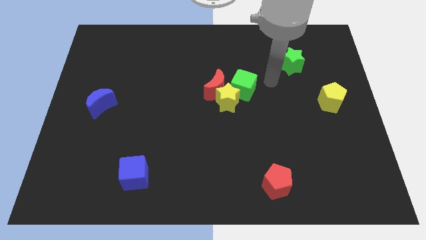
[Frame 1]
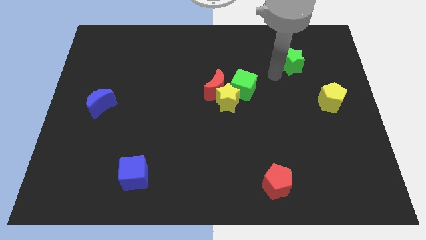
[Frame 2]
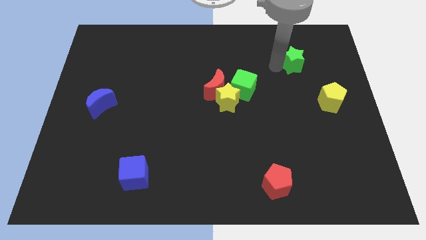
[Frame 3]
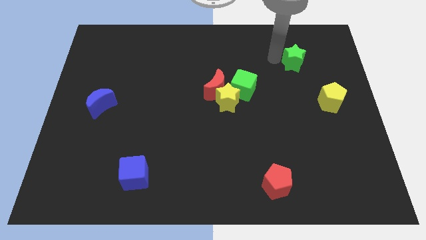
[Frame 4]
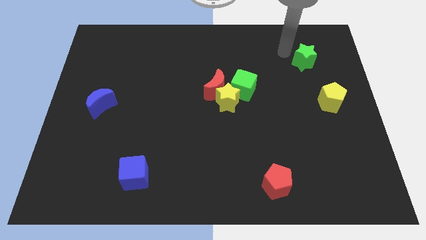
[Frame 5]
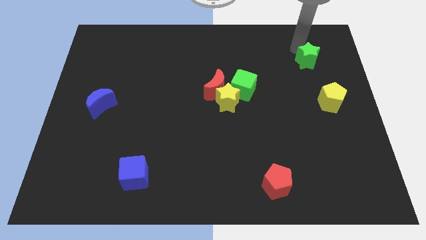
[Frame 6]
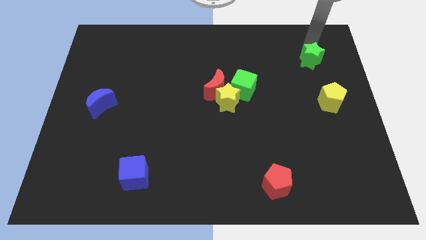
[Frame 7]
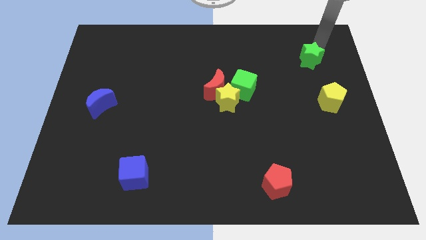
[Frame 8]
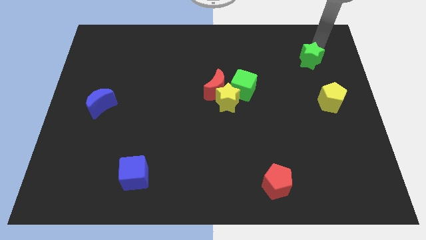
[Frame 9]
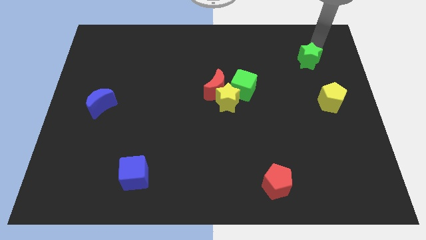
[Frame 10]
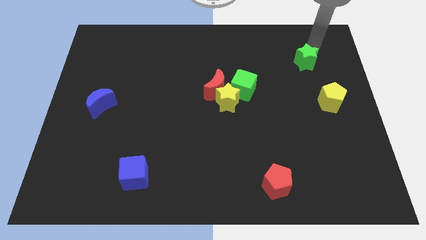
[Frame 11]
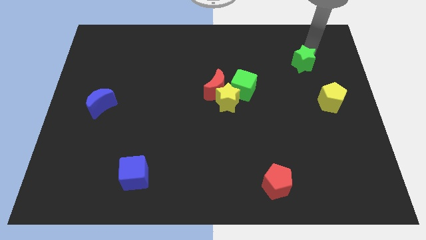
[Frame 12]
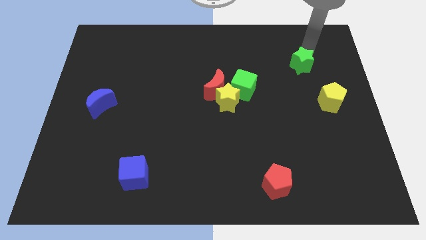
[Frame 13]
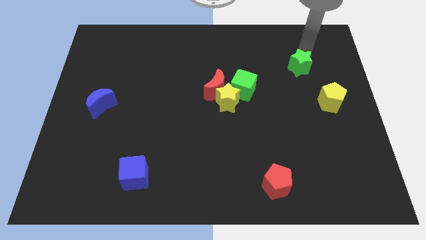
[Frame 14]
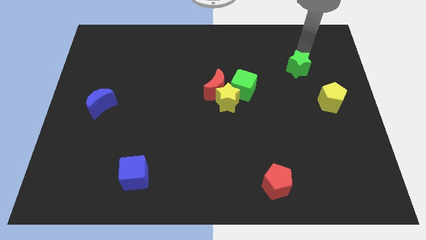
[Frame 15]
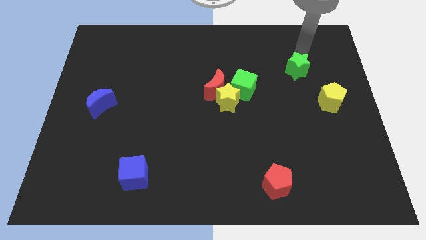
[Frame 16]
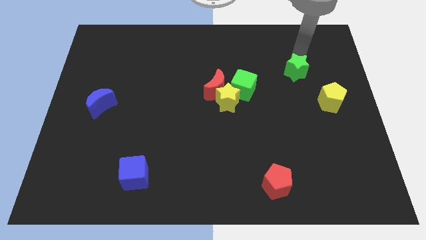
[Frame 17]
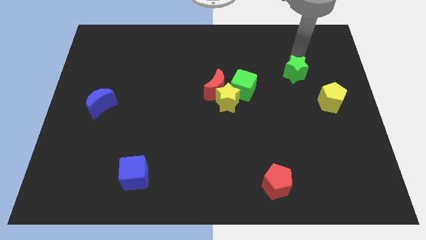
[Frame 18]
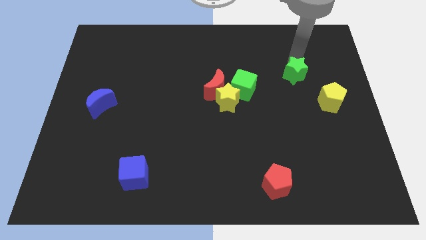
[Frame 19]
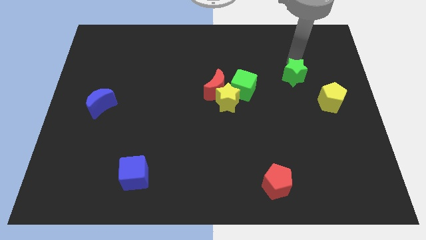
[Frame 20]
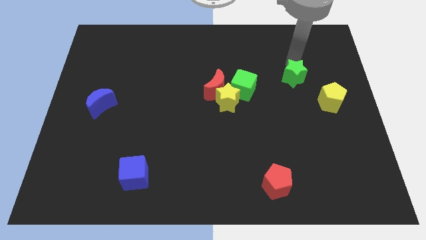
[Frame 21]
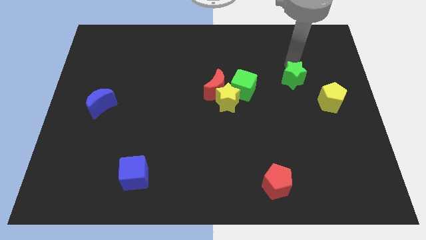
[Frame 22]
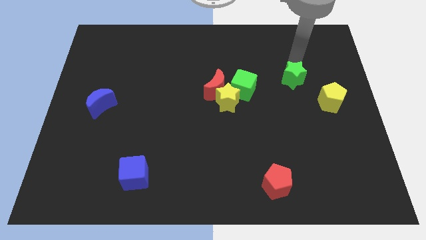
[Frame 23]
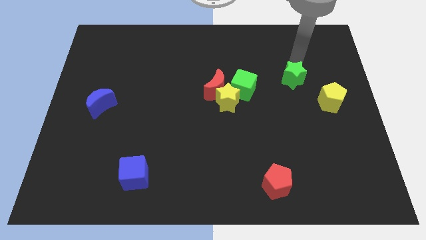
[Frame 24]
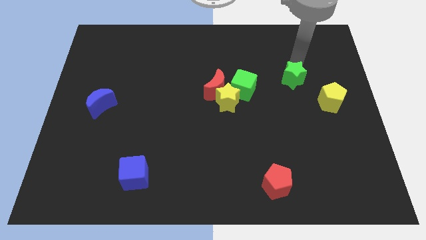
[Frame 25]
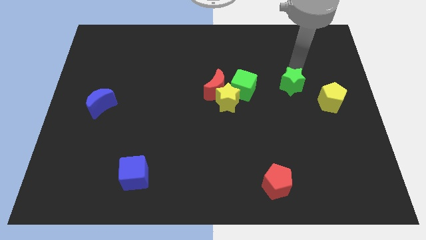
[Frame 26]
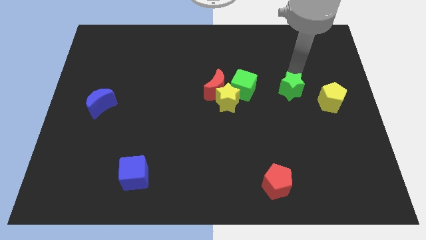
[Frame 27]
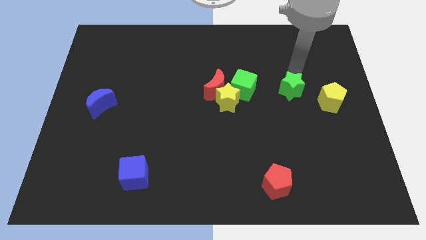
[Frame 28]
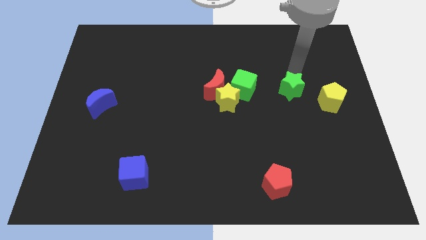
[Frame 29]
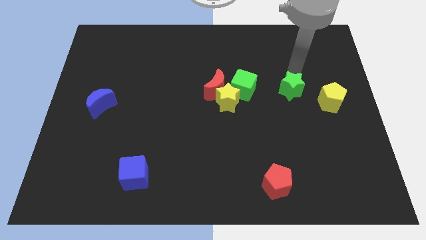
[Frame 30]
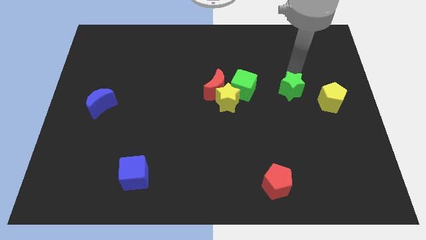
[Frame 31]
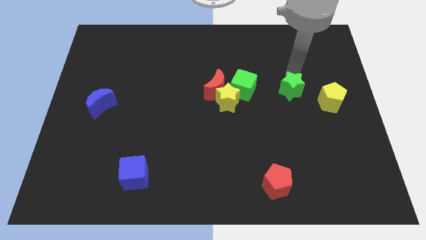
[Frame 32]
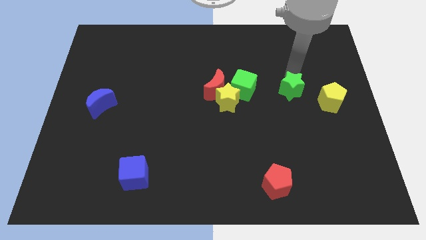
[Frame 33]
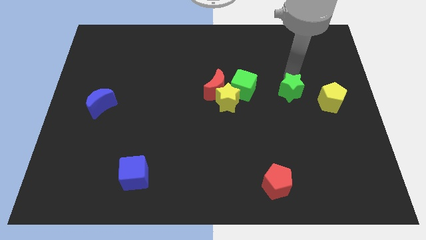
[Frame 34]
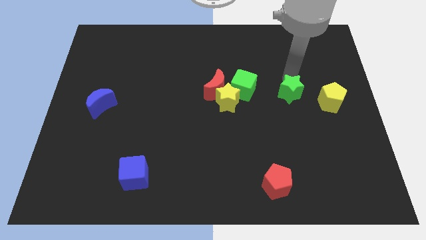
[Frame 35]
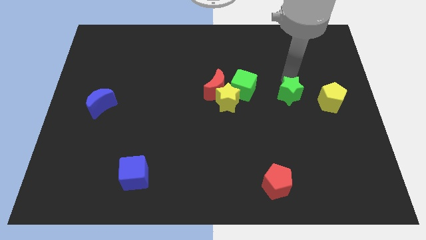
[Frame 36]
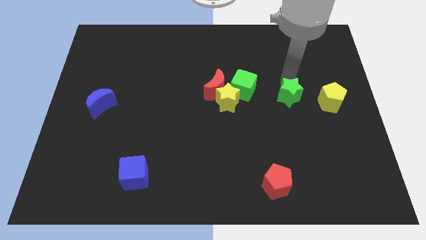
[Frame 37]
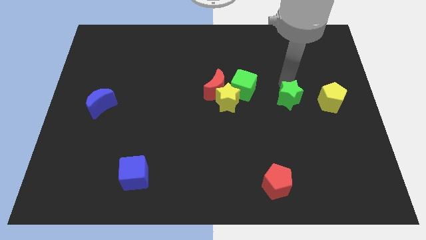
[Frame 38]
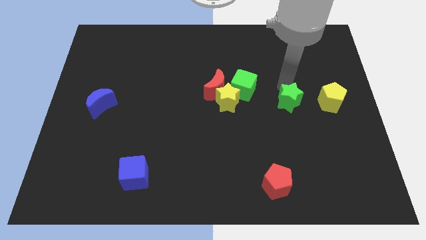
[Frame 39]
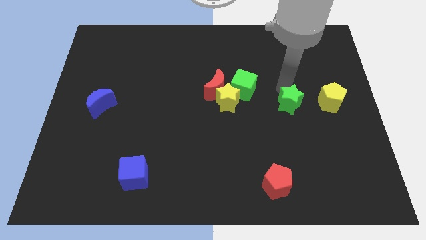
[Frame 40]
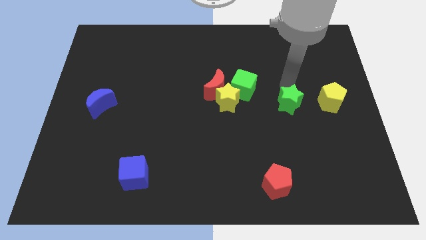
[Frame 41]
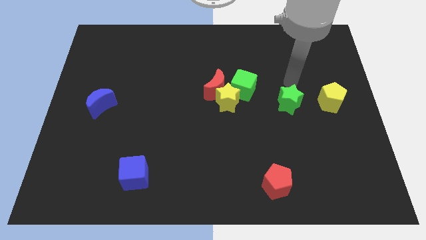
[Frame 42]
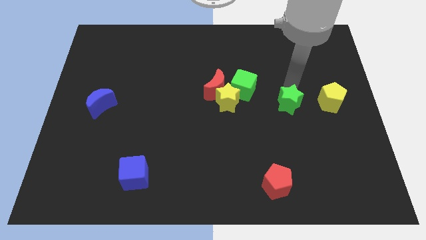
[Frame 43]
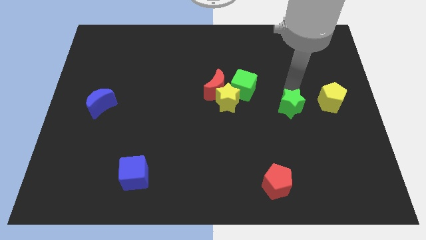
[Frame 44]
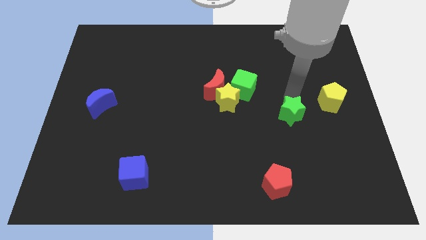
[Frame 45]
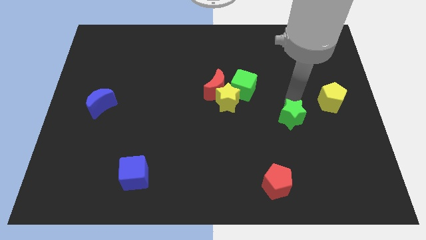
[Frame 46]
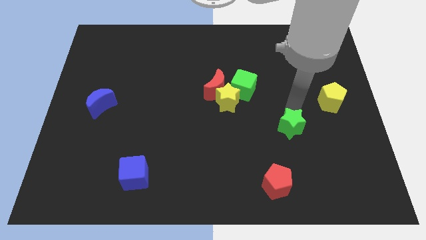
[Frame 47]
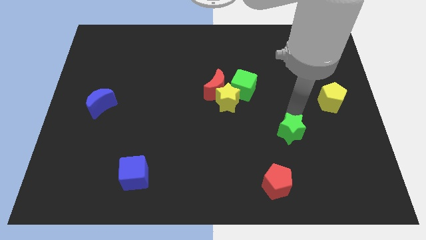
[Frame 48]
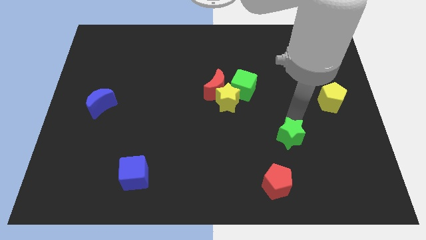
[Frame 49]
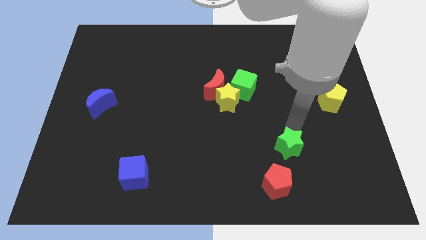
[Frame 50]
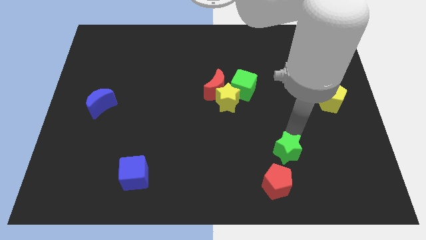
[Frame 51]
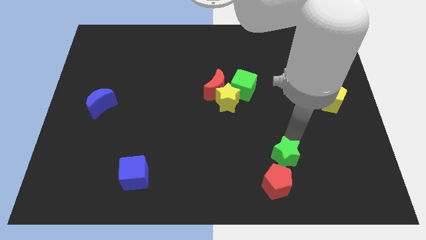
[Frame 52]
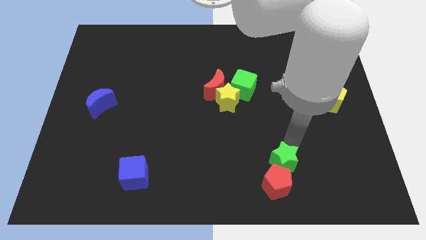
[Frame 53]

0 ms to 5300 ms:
slide the green star to the red pentagon

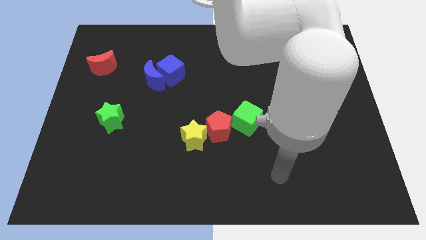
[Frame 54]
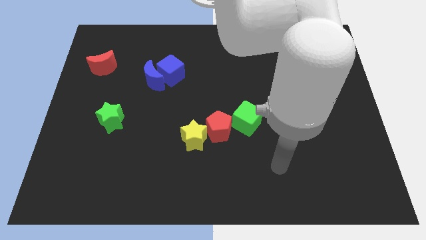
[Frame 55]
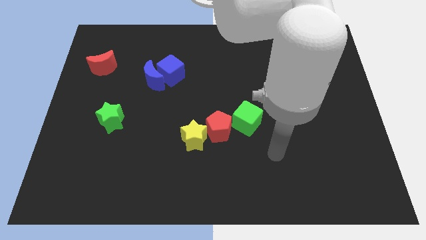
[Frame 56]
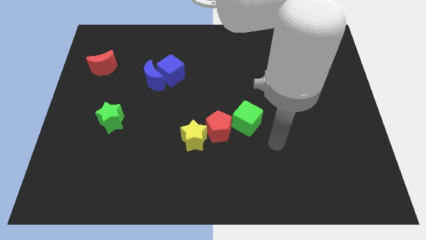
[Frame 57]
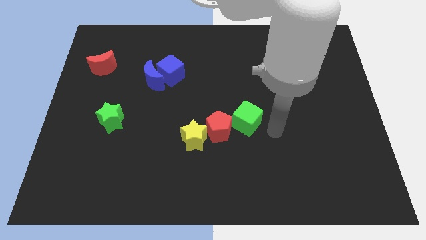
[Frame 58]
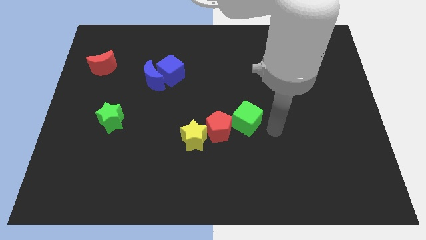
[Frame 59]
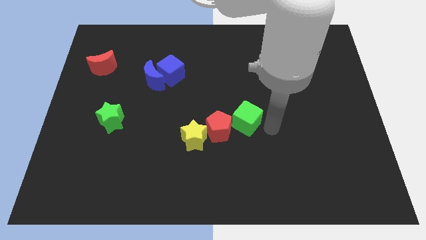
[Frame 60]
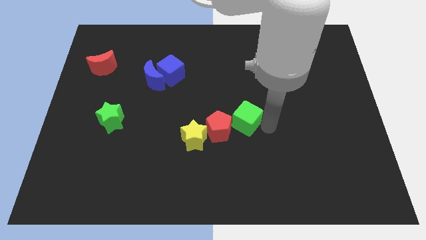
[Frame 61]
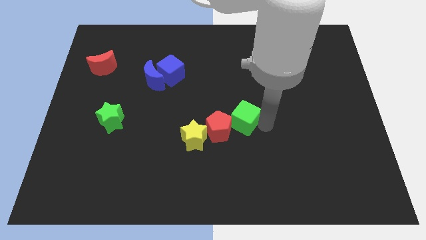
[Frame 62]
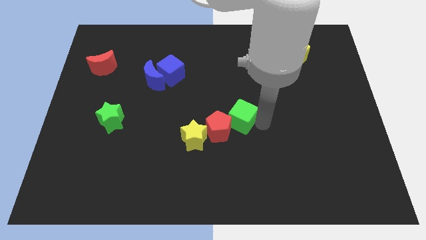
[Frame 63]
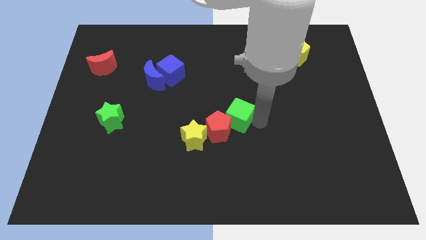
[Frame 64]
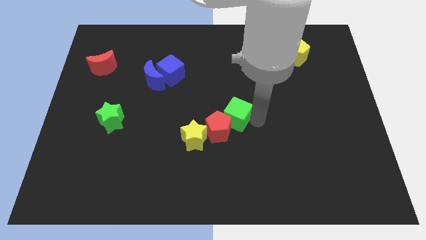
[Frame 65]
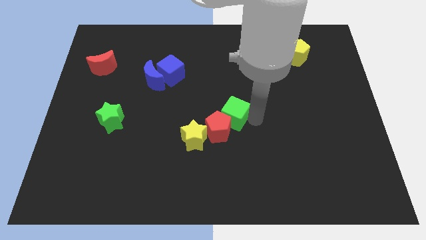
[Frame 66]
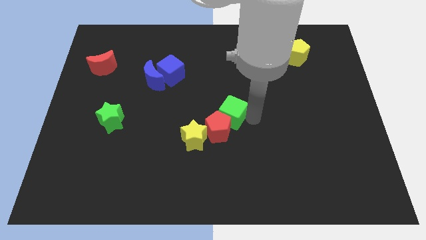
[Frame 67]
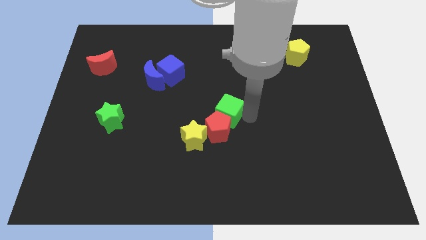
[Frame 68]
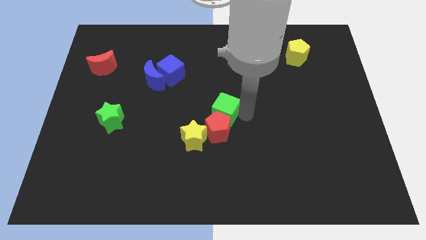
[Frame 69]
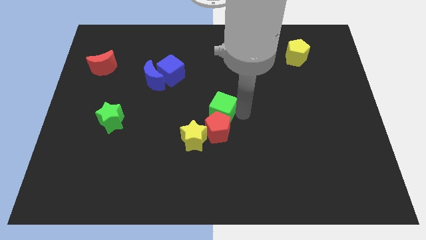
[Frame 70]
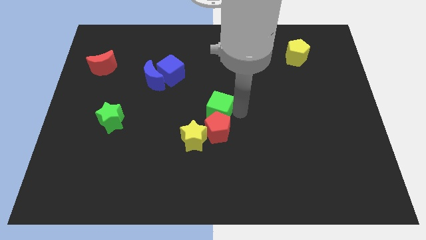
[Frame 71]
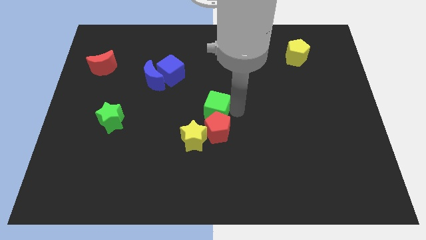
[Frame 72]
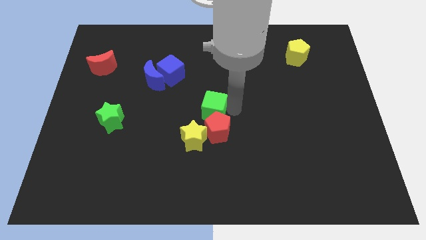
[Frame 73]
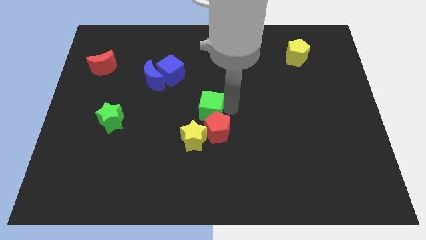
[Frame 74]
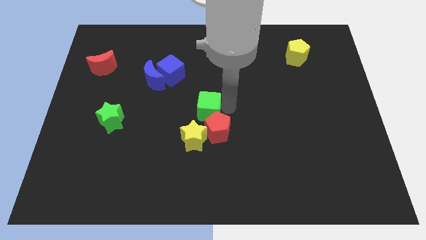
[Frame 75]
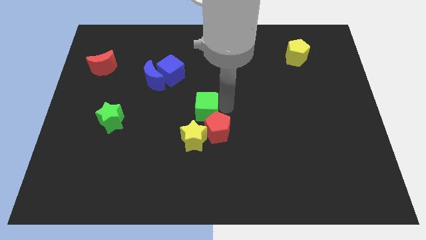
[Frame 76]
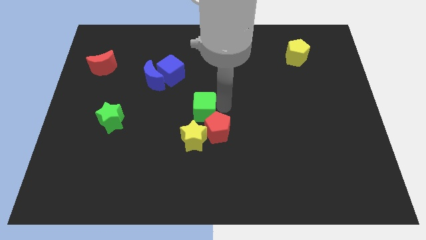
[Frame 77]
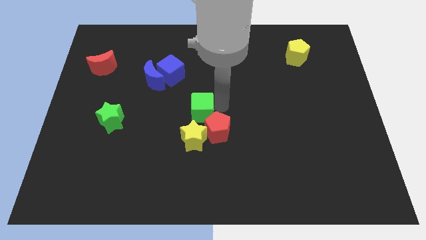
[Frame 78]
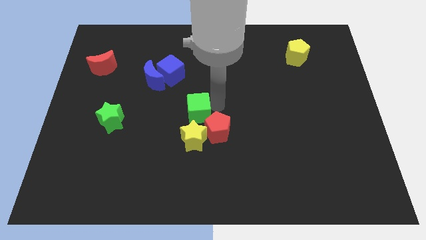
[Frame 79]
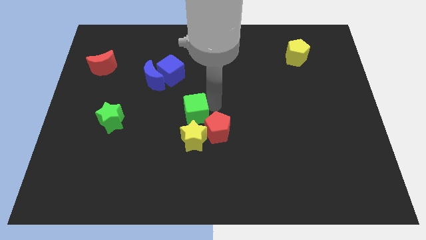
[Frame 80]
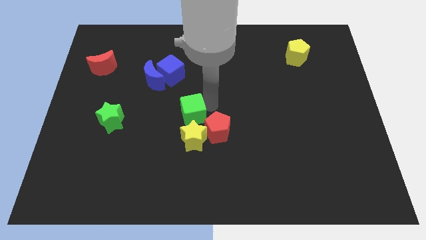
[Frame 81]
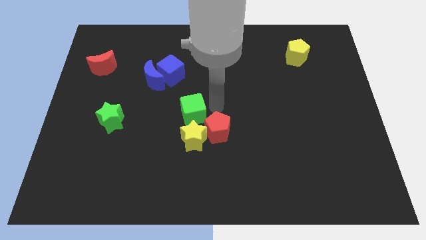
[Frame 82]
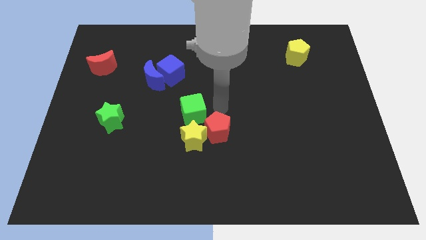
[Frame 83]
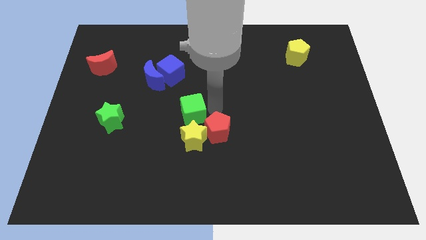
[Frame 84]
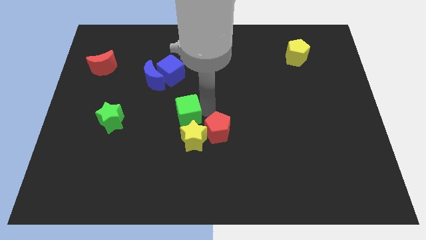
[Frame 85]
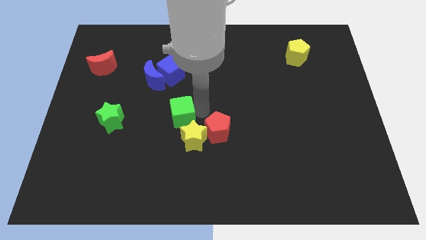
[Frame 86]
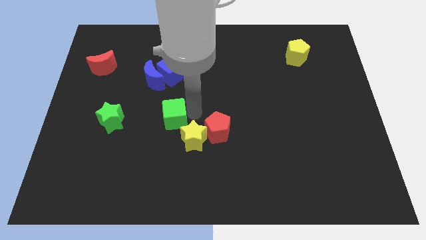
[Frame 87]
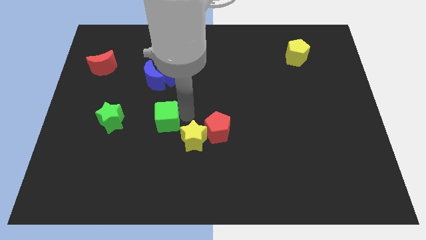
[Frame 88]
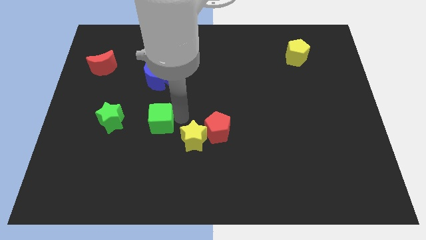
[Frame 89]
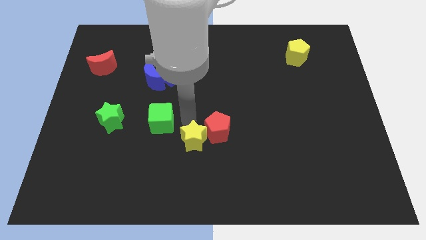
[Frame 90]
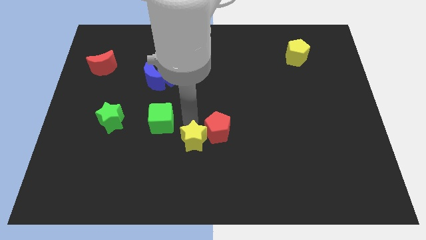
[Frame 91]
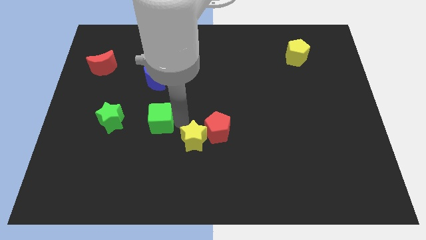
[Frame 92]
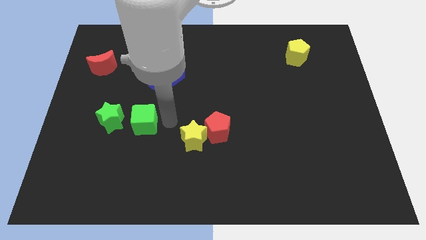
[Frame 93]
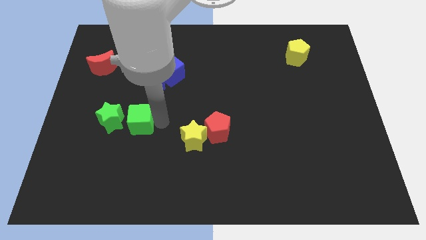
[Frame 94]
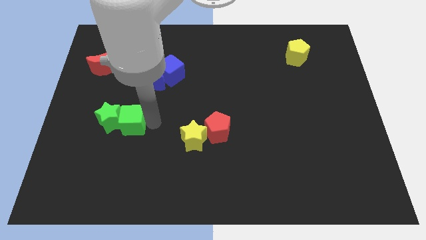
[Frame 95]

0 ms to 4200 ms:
push the green cube close to the green star
